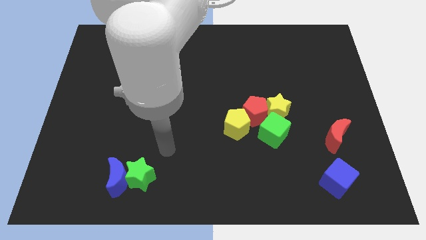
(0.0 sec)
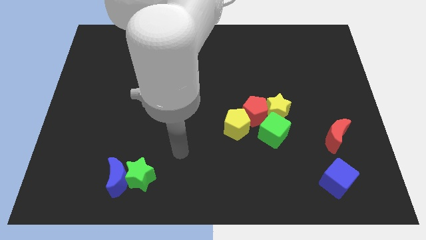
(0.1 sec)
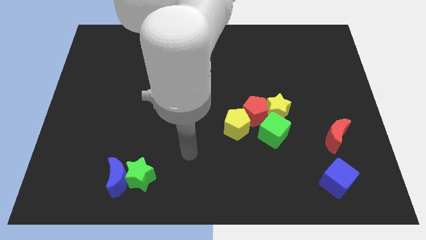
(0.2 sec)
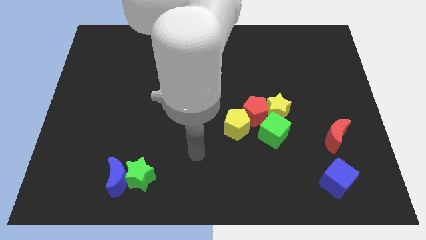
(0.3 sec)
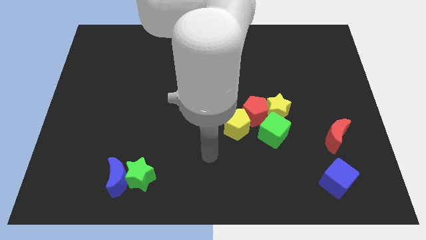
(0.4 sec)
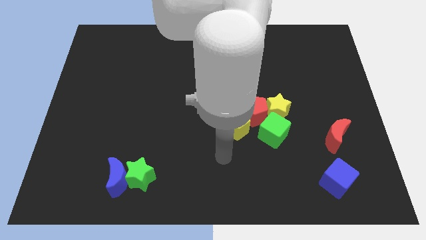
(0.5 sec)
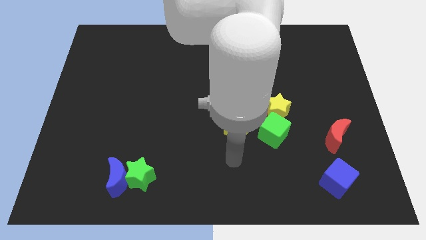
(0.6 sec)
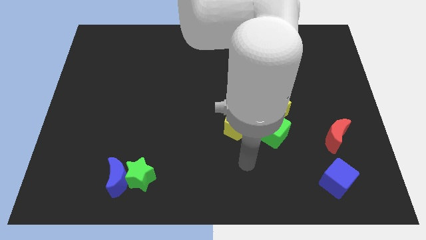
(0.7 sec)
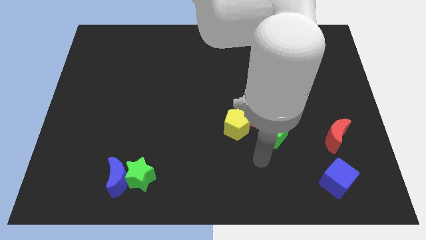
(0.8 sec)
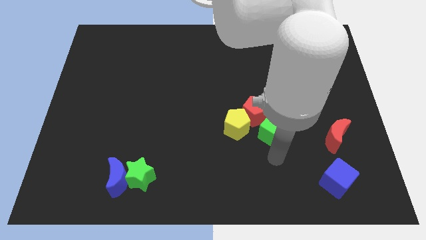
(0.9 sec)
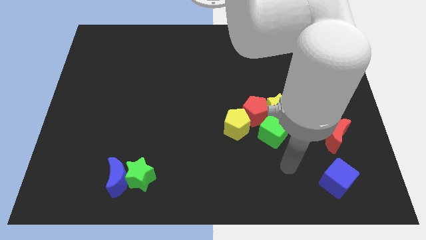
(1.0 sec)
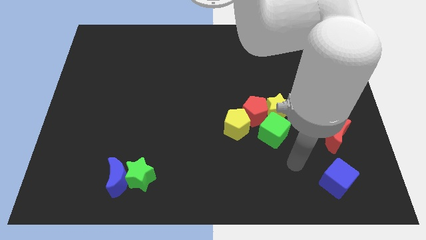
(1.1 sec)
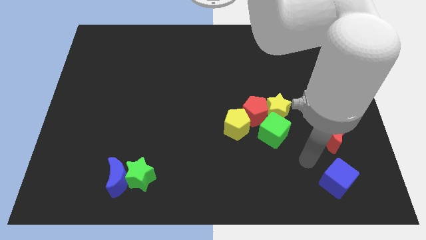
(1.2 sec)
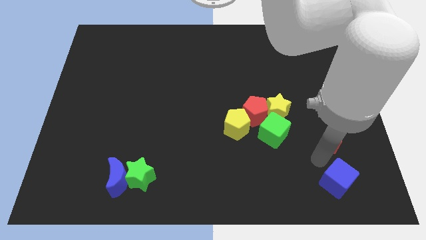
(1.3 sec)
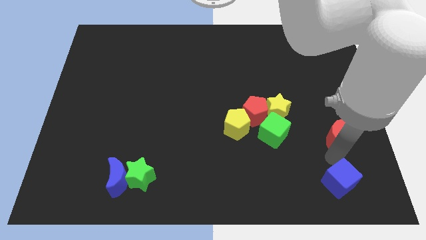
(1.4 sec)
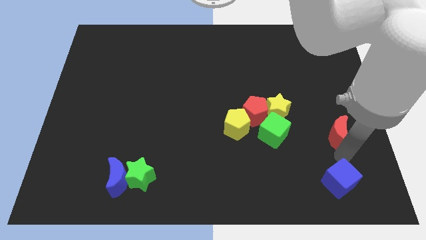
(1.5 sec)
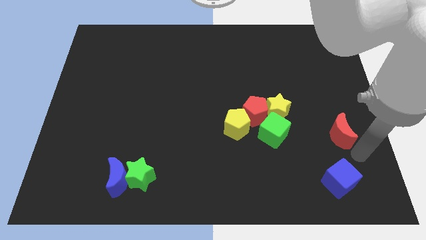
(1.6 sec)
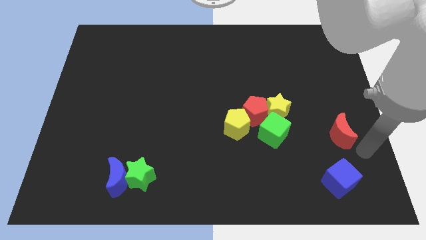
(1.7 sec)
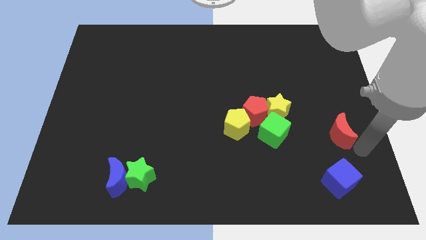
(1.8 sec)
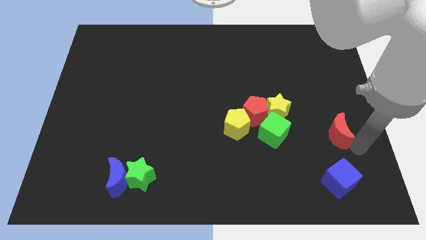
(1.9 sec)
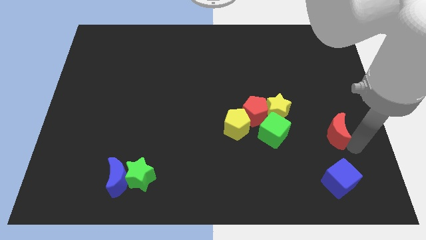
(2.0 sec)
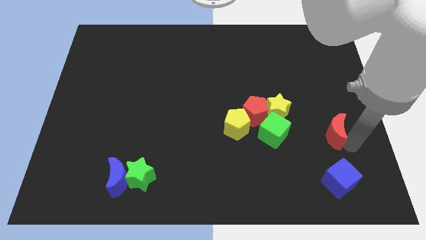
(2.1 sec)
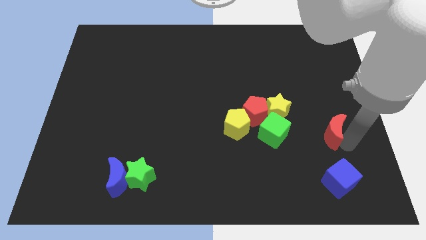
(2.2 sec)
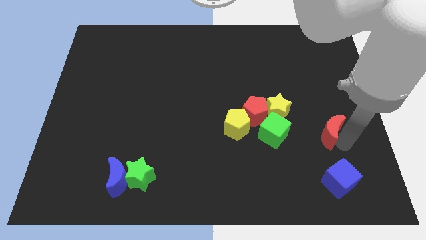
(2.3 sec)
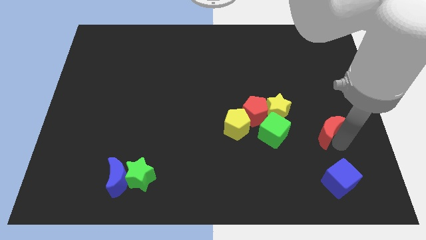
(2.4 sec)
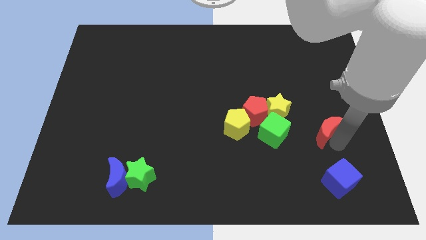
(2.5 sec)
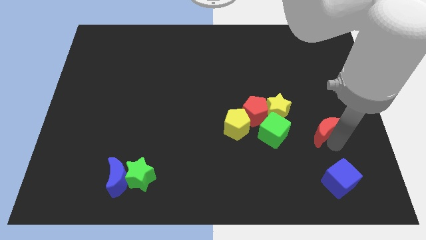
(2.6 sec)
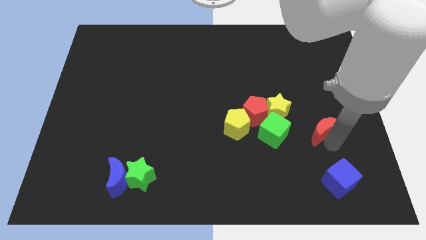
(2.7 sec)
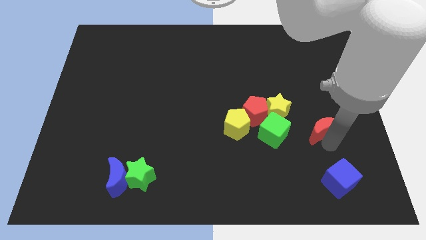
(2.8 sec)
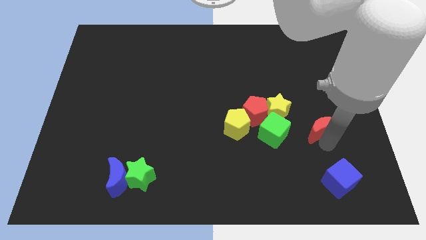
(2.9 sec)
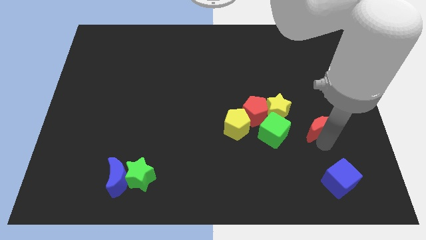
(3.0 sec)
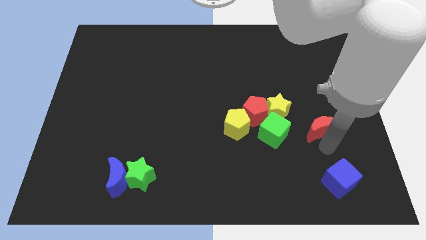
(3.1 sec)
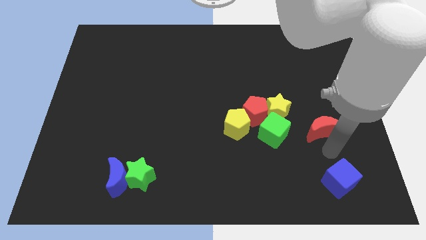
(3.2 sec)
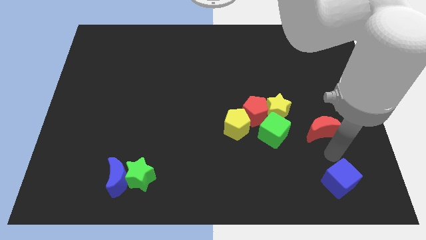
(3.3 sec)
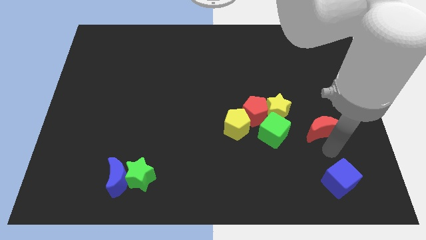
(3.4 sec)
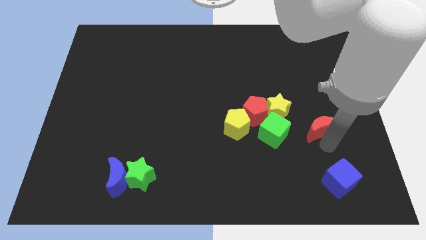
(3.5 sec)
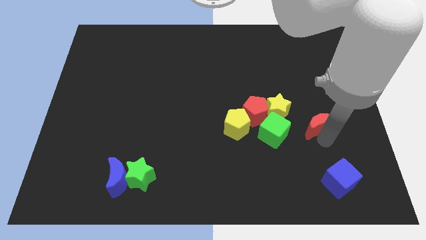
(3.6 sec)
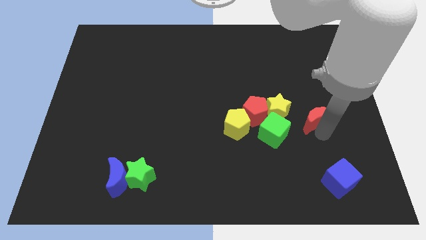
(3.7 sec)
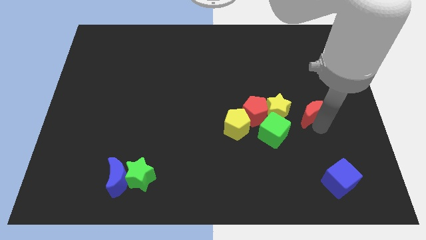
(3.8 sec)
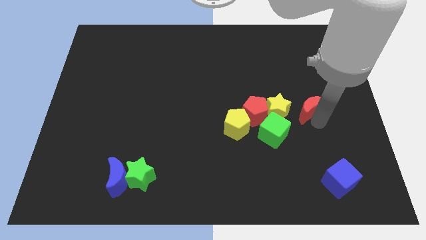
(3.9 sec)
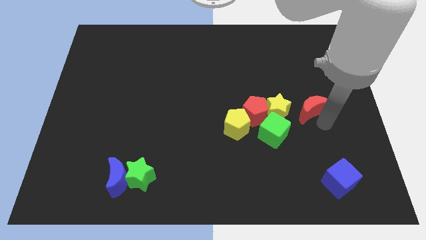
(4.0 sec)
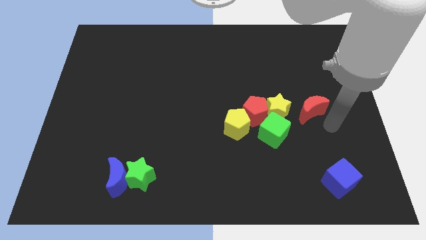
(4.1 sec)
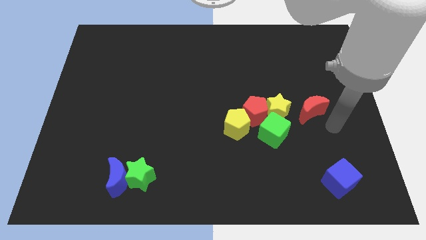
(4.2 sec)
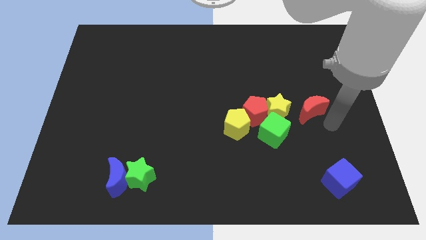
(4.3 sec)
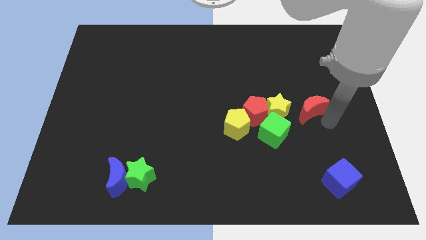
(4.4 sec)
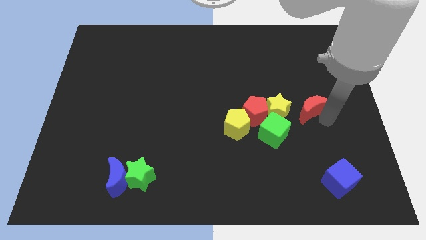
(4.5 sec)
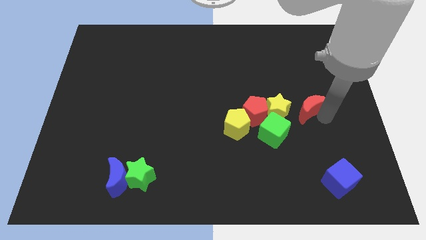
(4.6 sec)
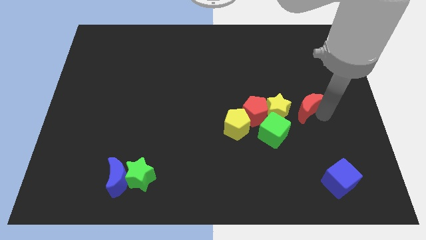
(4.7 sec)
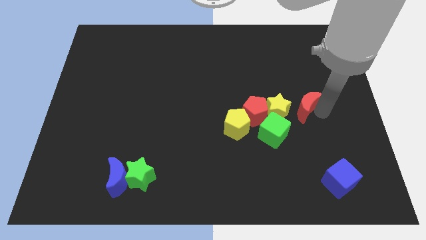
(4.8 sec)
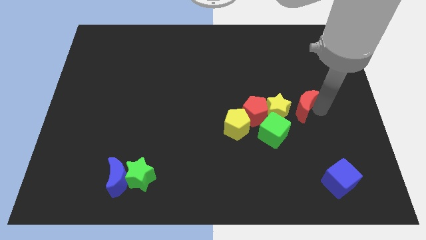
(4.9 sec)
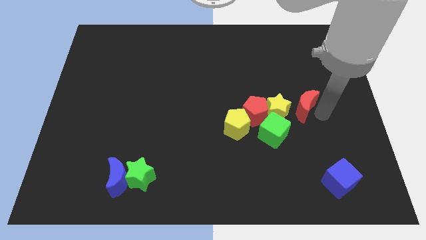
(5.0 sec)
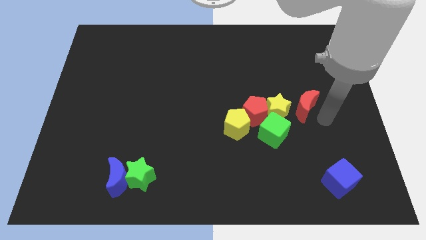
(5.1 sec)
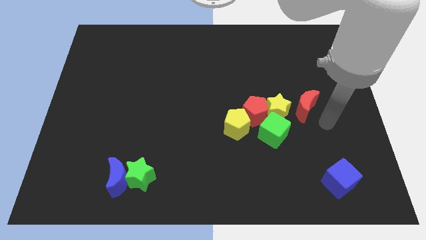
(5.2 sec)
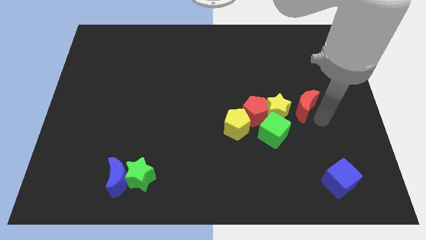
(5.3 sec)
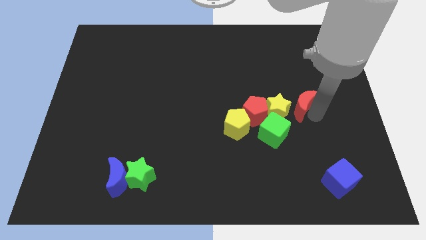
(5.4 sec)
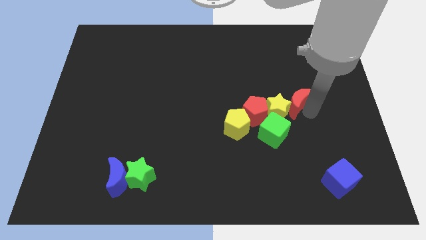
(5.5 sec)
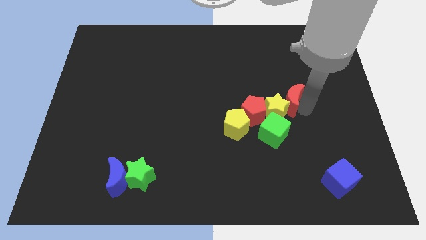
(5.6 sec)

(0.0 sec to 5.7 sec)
move the red moon above the yellow star

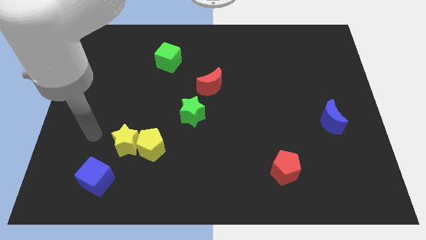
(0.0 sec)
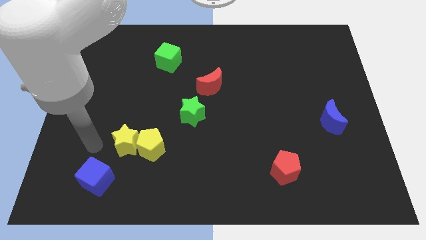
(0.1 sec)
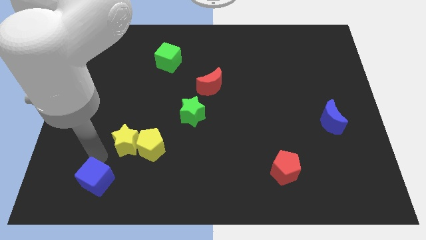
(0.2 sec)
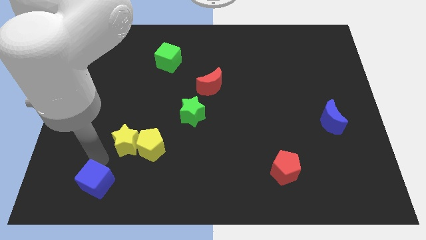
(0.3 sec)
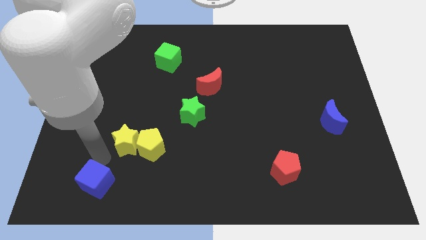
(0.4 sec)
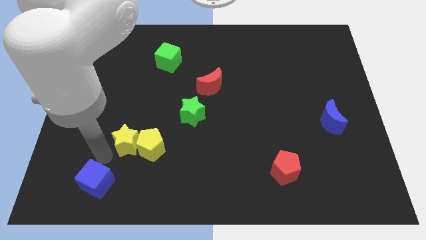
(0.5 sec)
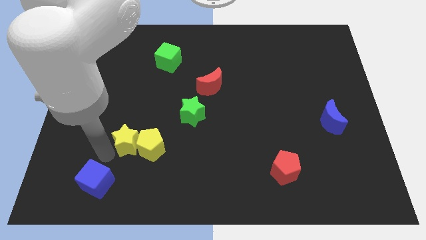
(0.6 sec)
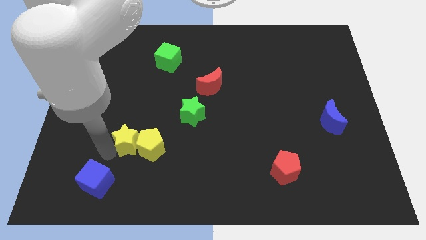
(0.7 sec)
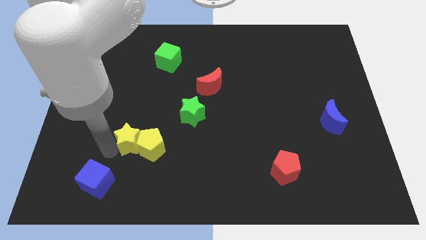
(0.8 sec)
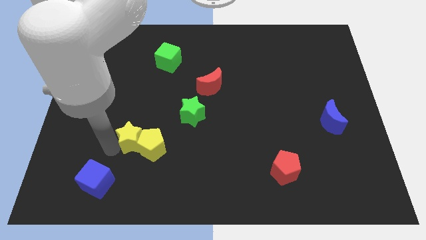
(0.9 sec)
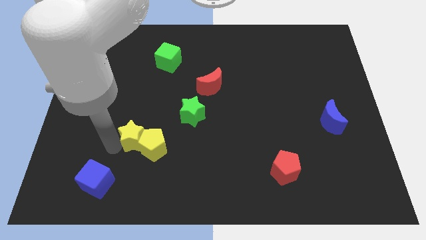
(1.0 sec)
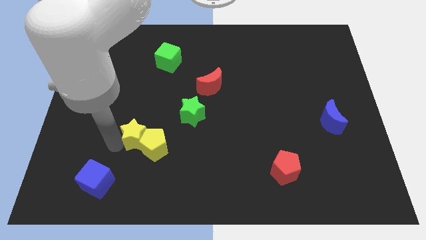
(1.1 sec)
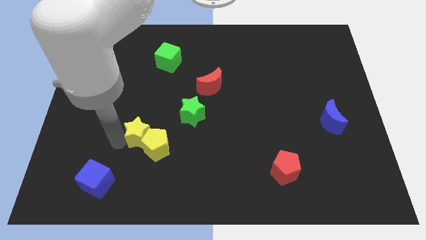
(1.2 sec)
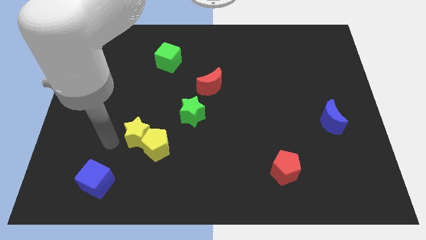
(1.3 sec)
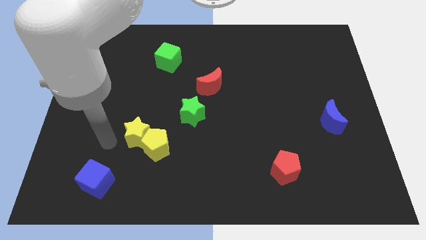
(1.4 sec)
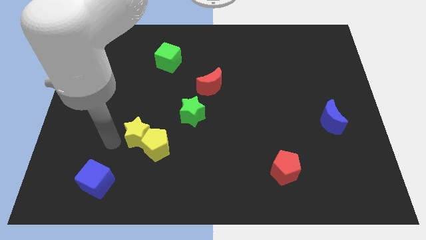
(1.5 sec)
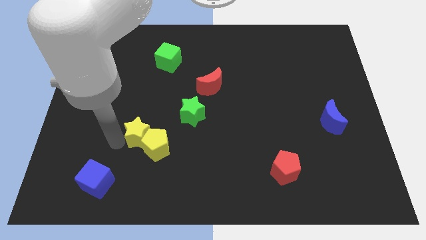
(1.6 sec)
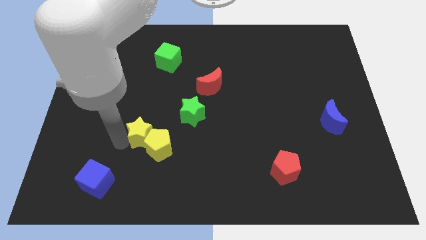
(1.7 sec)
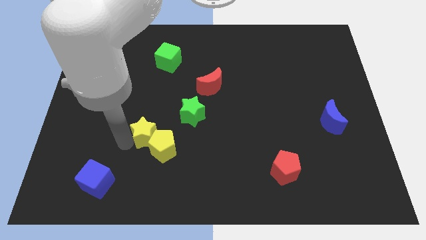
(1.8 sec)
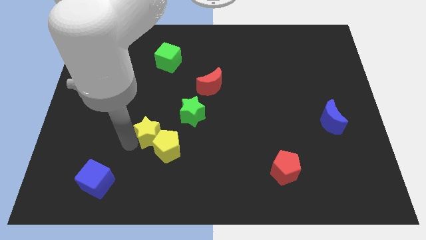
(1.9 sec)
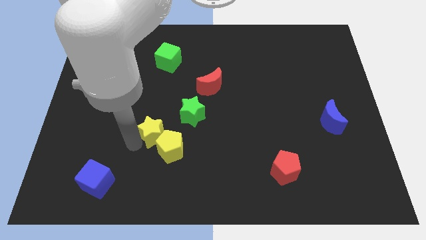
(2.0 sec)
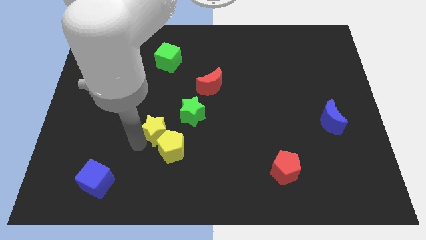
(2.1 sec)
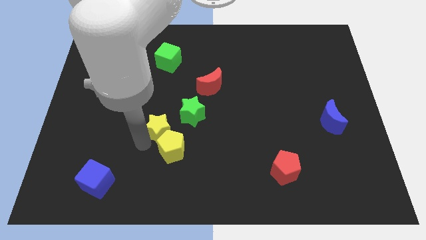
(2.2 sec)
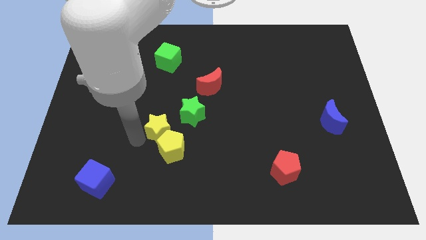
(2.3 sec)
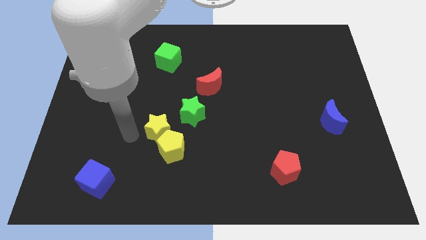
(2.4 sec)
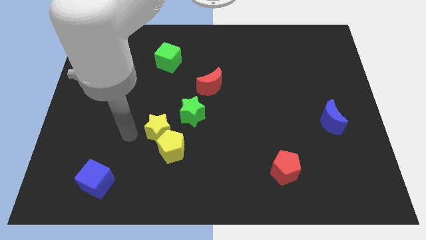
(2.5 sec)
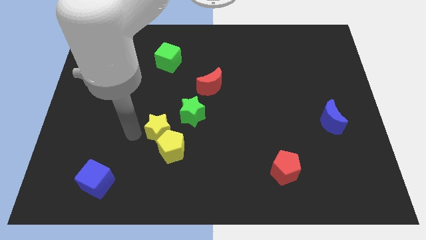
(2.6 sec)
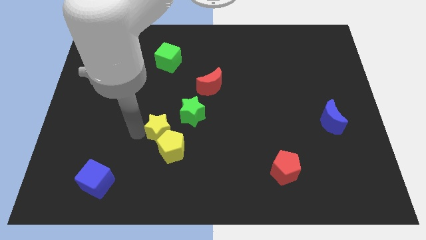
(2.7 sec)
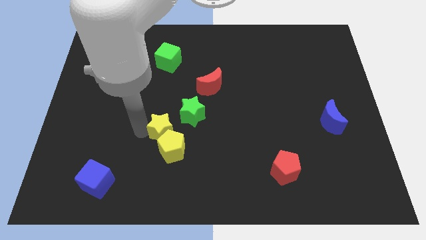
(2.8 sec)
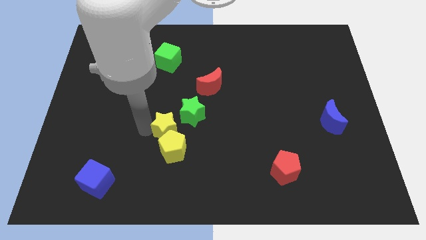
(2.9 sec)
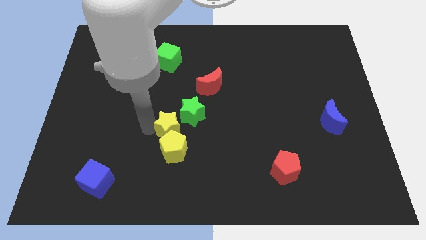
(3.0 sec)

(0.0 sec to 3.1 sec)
push the yellow star diagonally up and to the right of the yellow pentagon
